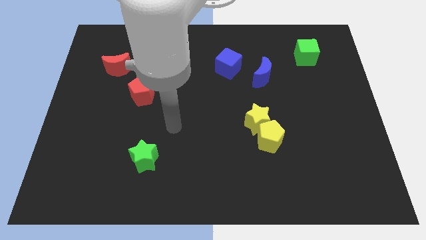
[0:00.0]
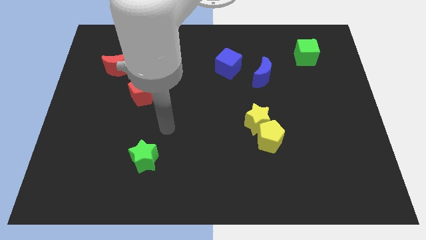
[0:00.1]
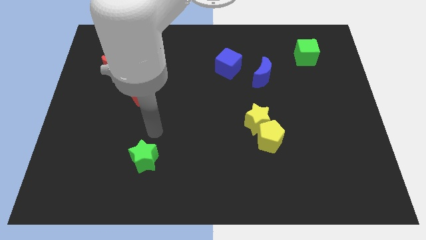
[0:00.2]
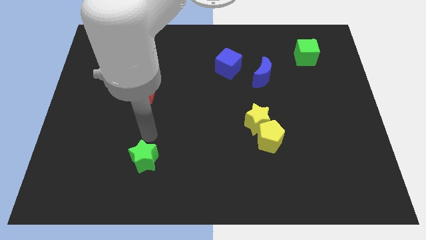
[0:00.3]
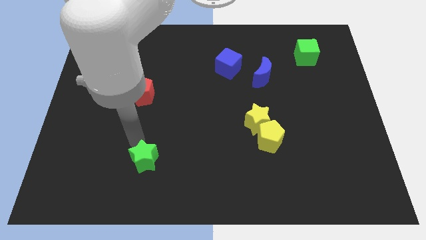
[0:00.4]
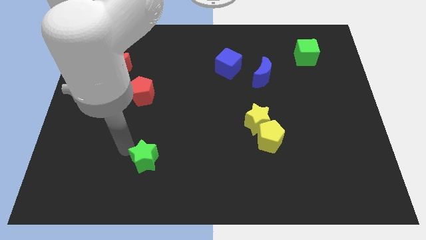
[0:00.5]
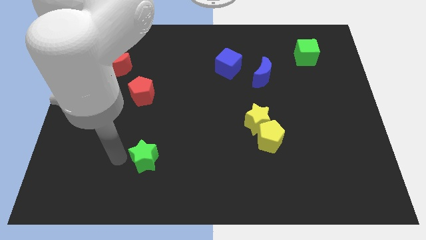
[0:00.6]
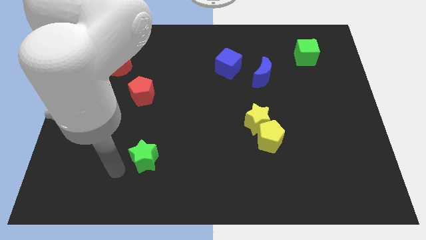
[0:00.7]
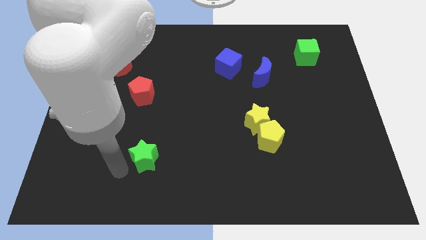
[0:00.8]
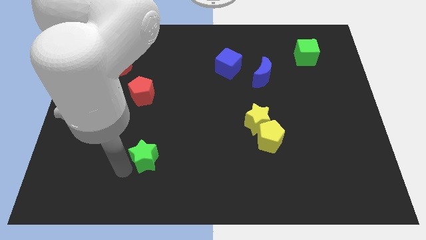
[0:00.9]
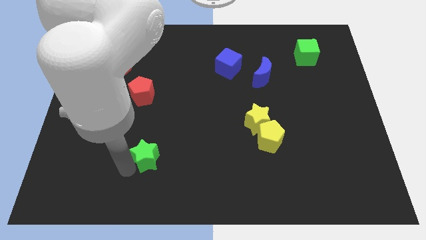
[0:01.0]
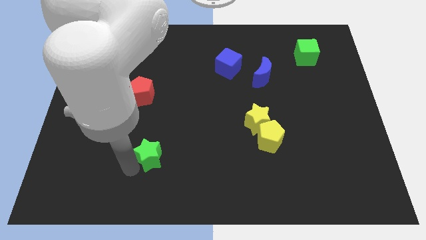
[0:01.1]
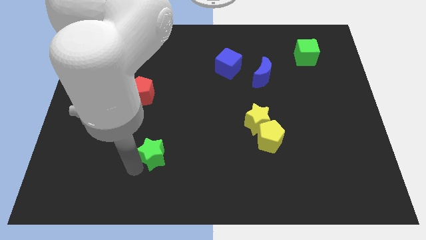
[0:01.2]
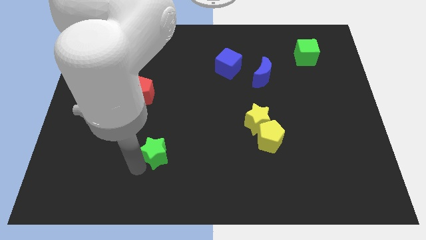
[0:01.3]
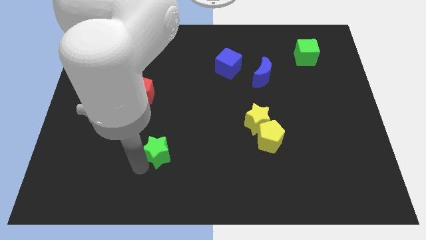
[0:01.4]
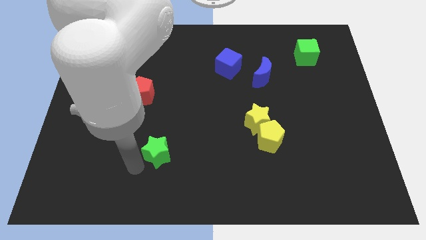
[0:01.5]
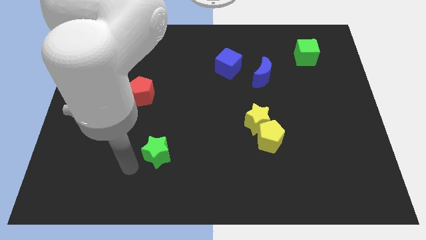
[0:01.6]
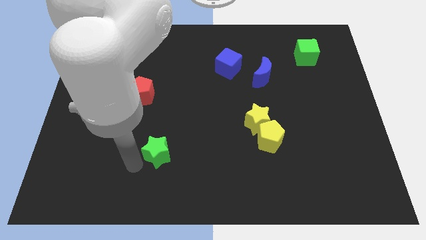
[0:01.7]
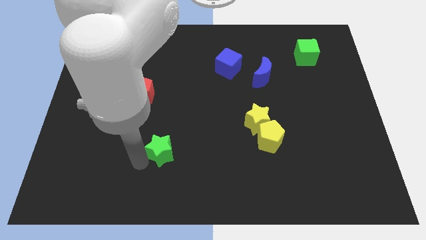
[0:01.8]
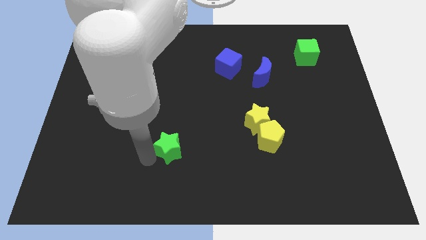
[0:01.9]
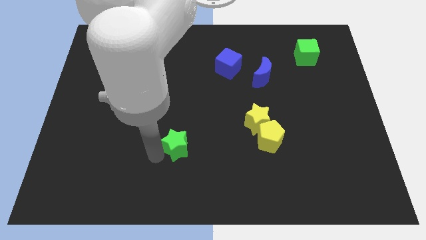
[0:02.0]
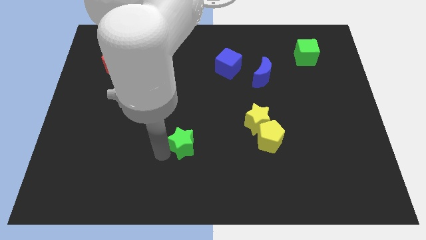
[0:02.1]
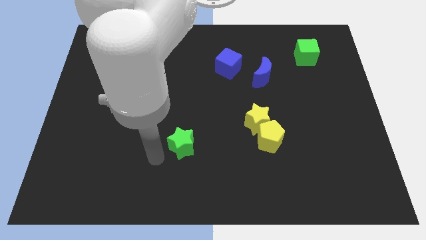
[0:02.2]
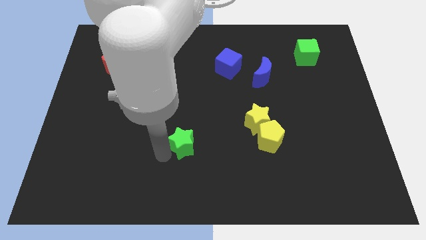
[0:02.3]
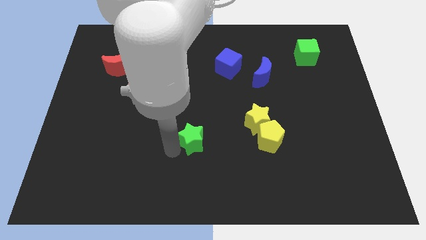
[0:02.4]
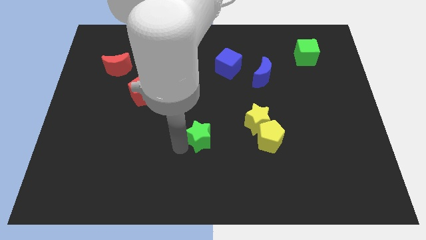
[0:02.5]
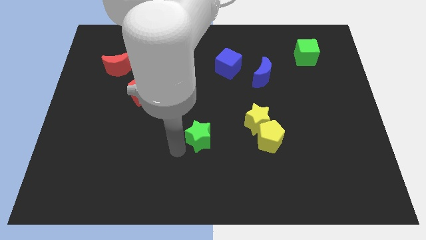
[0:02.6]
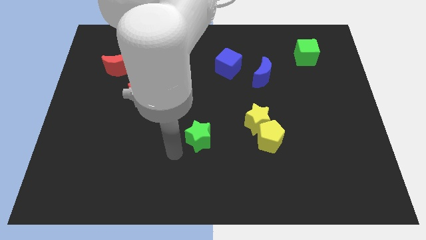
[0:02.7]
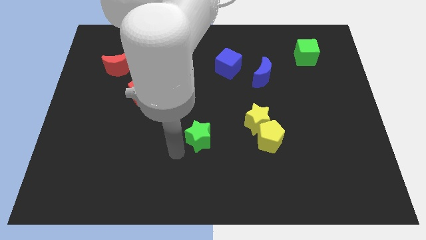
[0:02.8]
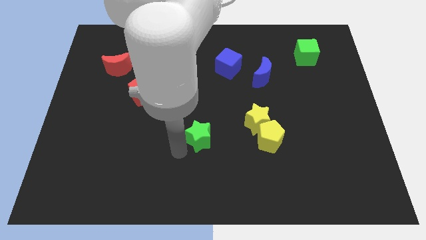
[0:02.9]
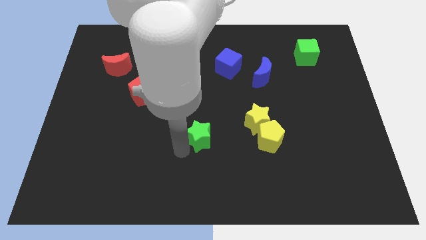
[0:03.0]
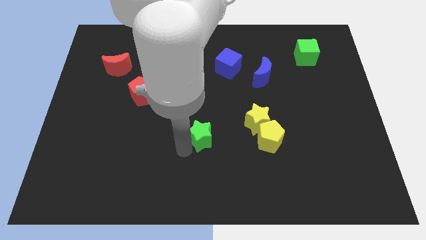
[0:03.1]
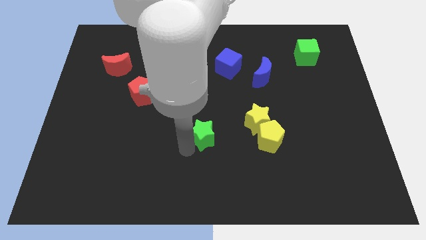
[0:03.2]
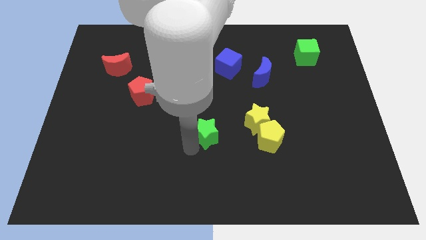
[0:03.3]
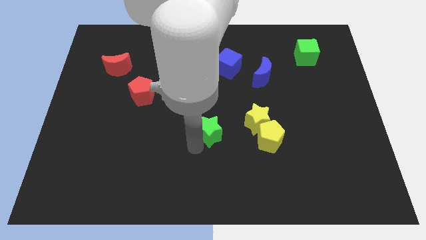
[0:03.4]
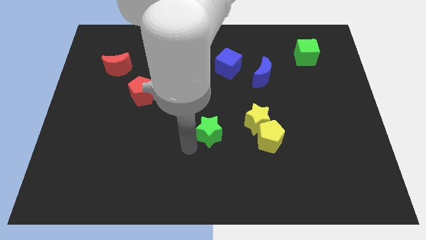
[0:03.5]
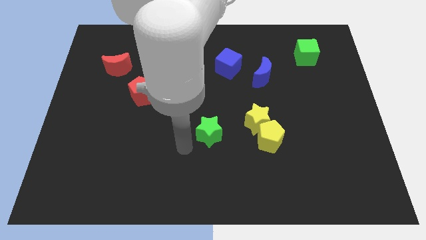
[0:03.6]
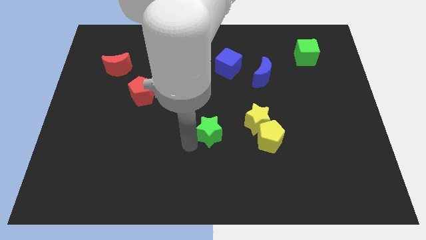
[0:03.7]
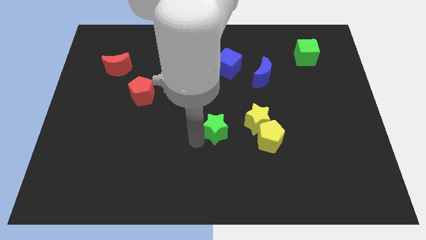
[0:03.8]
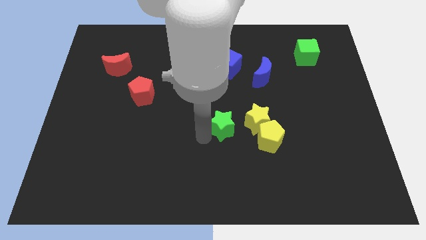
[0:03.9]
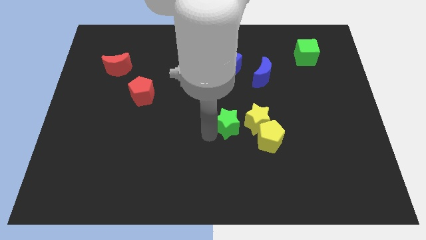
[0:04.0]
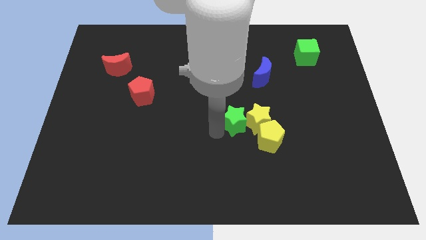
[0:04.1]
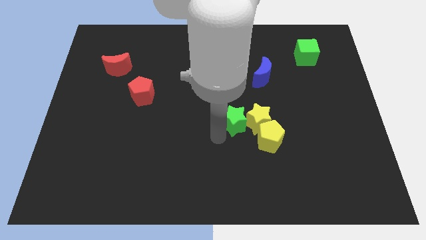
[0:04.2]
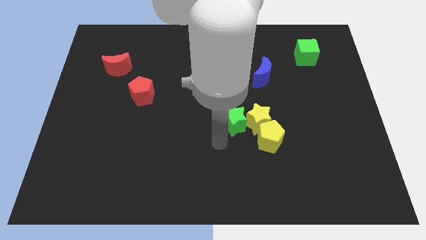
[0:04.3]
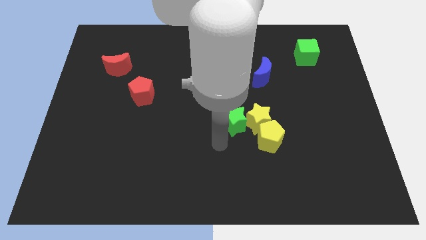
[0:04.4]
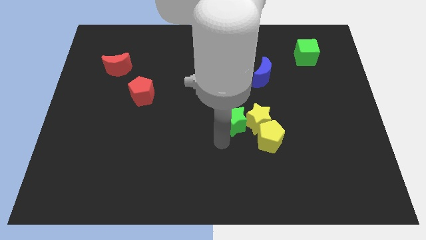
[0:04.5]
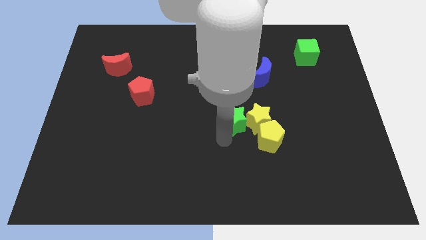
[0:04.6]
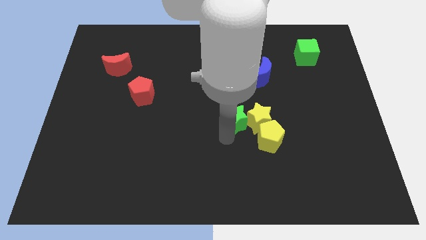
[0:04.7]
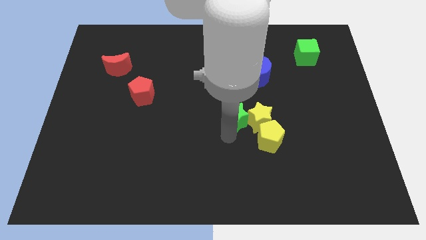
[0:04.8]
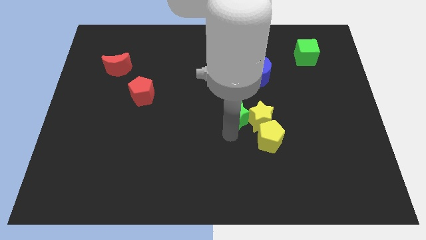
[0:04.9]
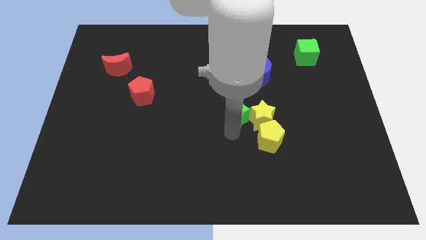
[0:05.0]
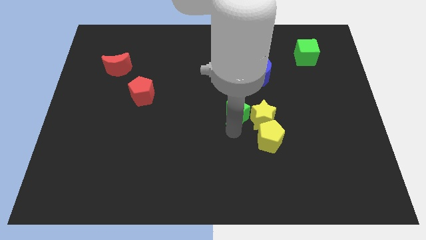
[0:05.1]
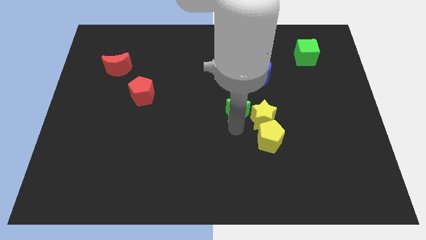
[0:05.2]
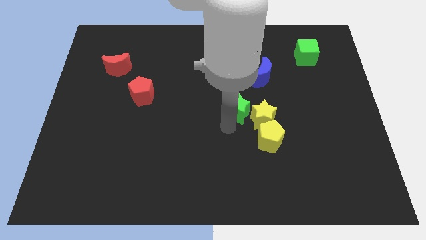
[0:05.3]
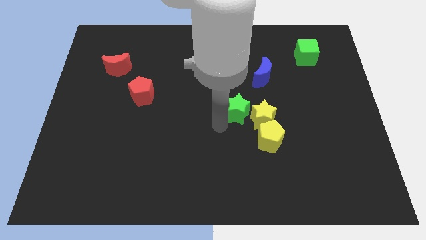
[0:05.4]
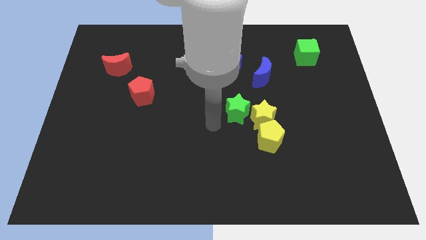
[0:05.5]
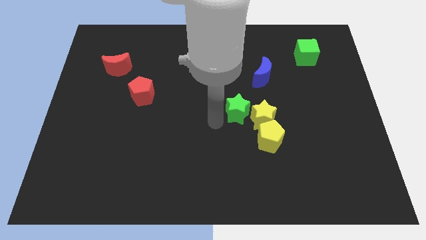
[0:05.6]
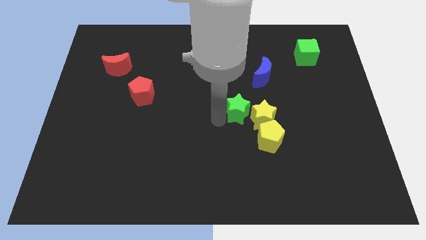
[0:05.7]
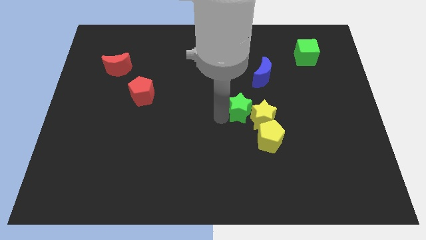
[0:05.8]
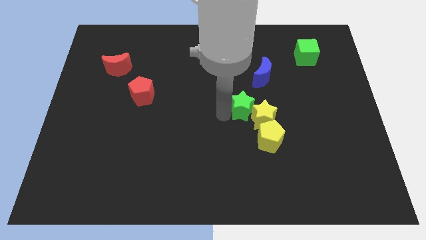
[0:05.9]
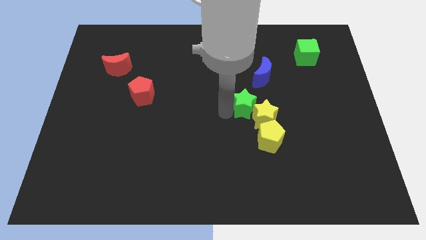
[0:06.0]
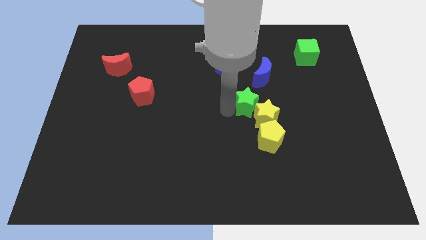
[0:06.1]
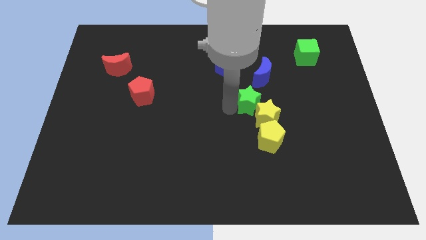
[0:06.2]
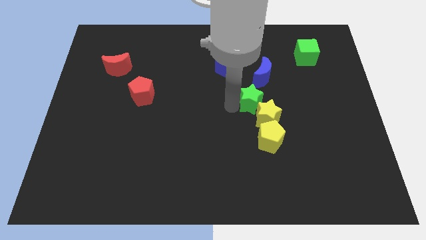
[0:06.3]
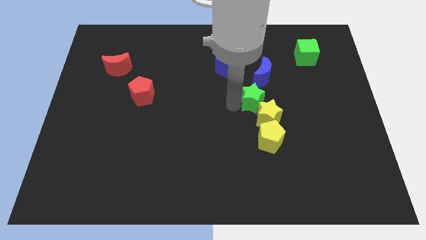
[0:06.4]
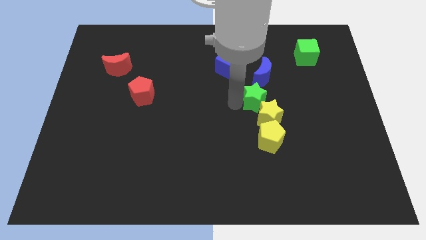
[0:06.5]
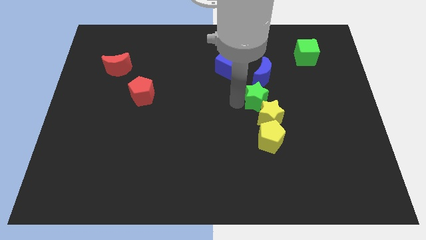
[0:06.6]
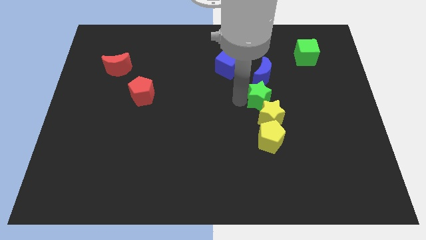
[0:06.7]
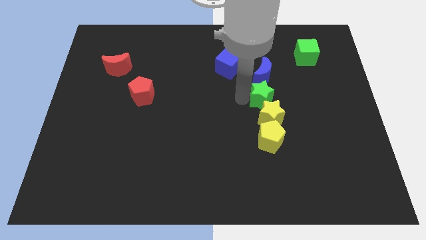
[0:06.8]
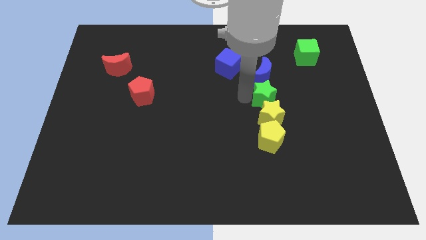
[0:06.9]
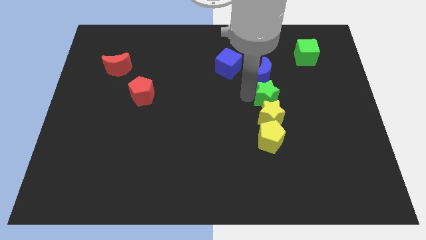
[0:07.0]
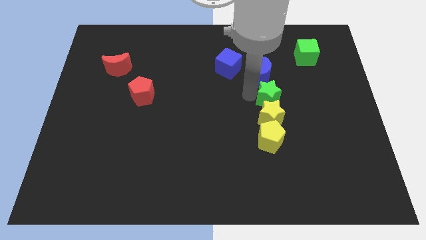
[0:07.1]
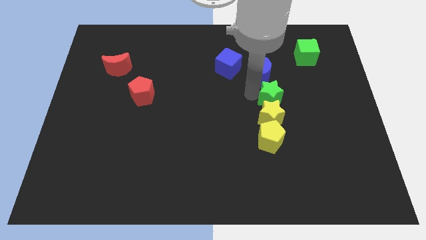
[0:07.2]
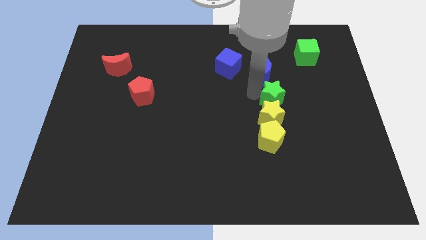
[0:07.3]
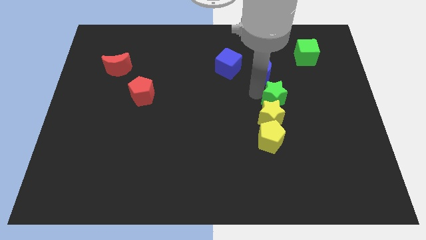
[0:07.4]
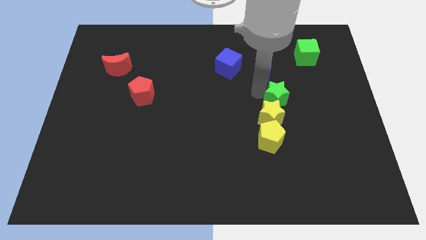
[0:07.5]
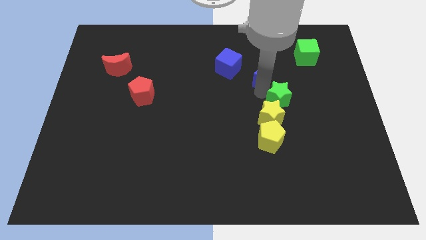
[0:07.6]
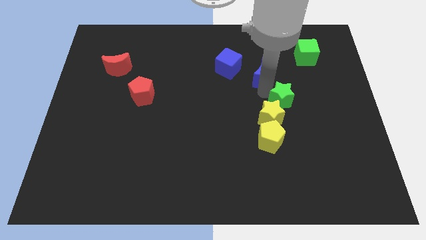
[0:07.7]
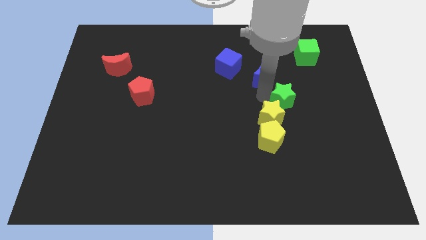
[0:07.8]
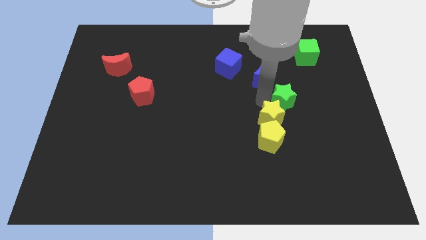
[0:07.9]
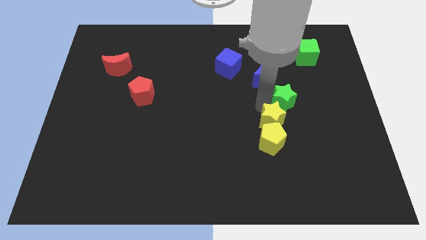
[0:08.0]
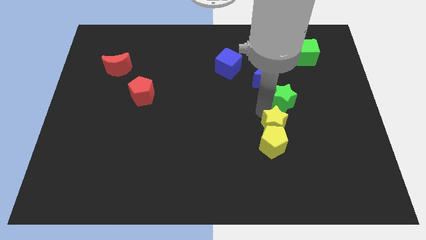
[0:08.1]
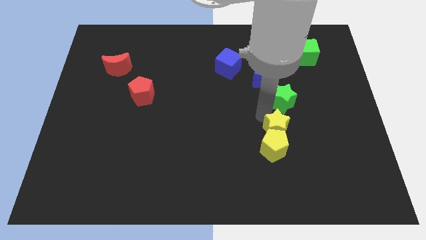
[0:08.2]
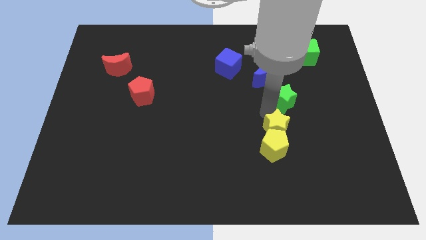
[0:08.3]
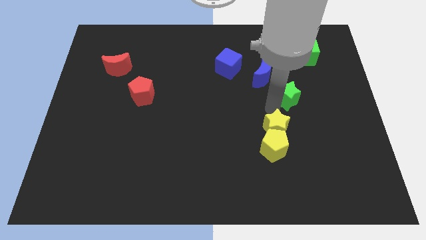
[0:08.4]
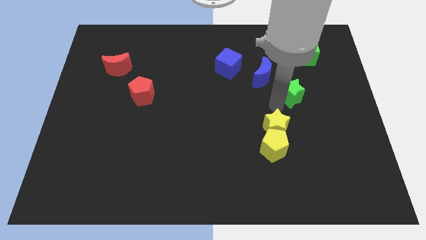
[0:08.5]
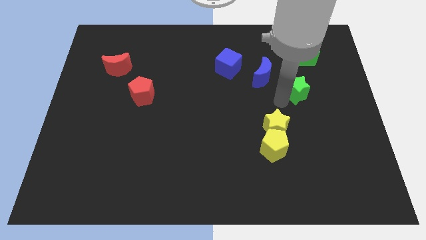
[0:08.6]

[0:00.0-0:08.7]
move the green star to the bottom side of the green cube

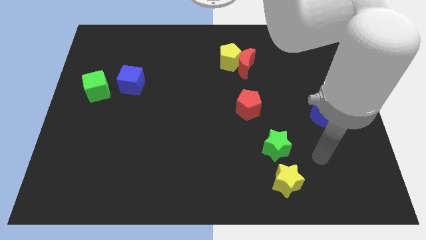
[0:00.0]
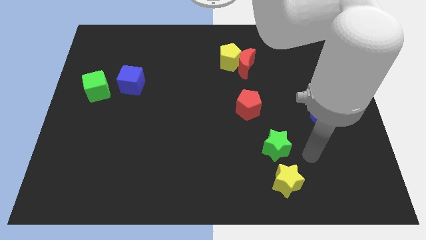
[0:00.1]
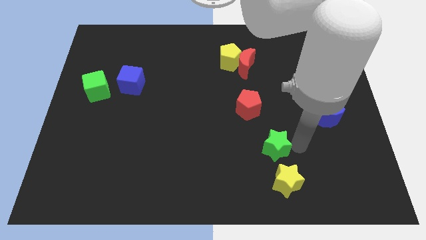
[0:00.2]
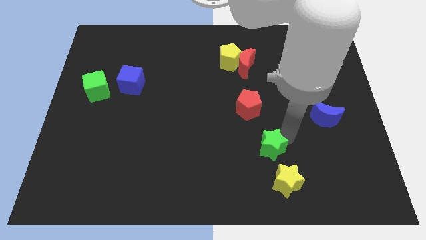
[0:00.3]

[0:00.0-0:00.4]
slide the red pentagon above the green star
